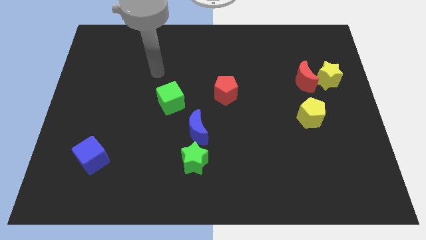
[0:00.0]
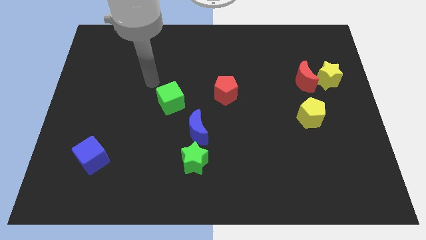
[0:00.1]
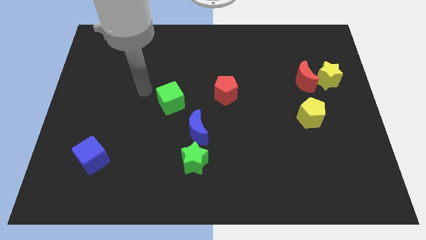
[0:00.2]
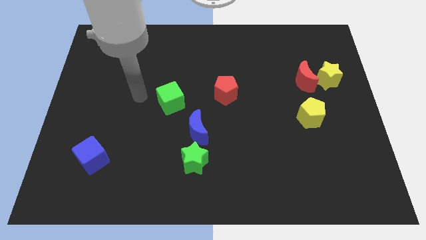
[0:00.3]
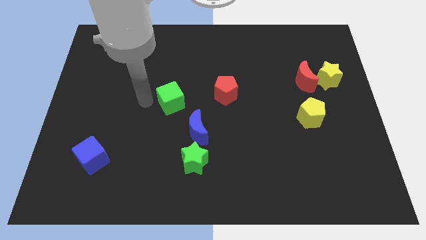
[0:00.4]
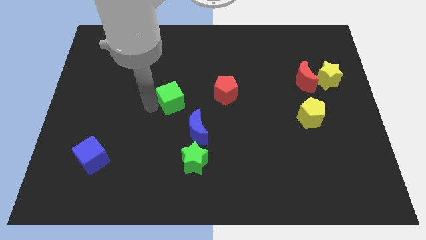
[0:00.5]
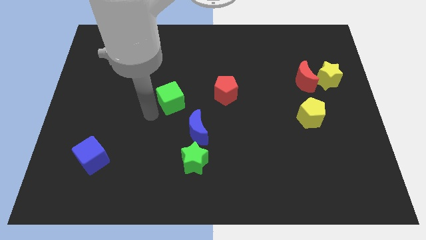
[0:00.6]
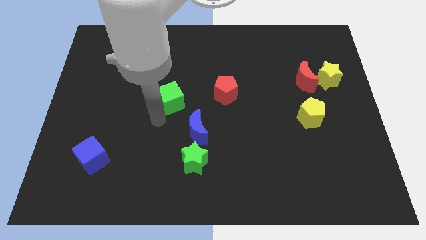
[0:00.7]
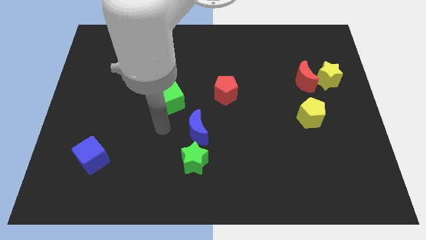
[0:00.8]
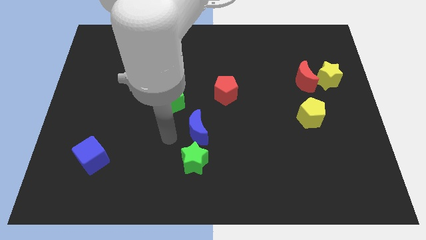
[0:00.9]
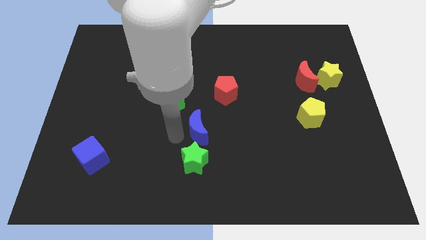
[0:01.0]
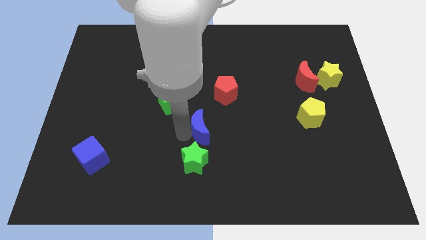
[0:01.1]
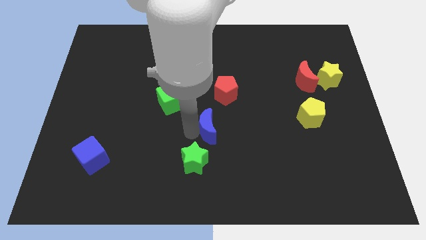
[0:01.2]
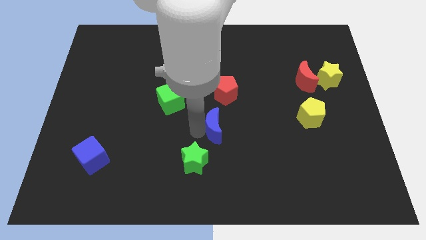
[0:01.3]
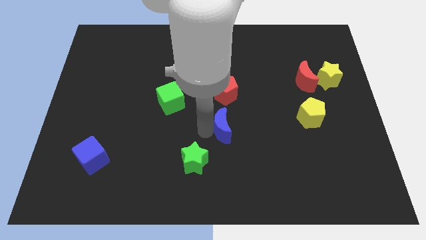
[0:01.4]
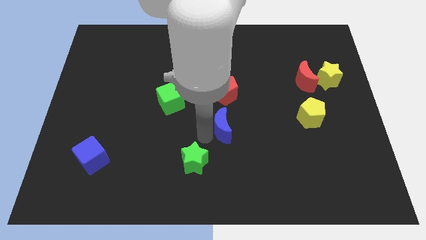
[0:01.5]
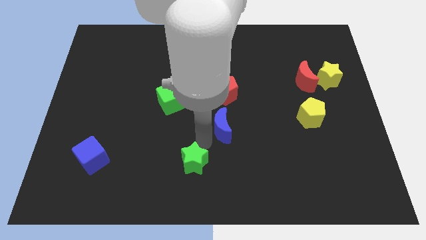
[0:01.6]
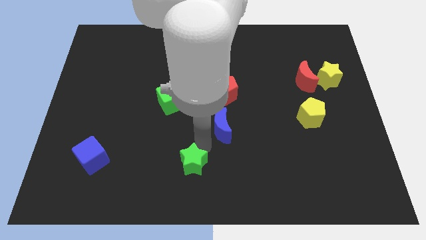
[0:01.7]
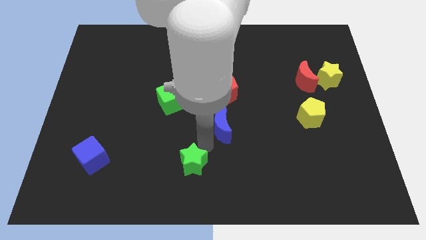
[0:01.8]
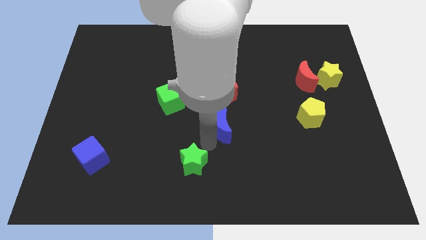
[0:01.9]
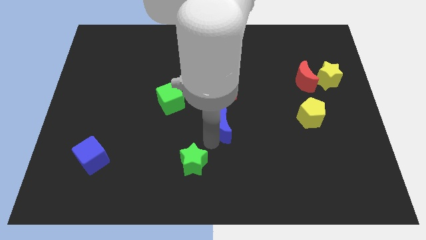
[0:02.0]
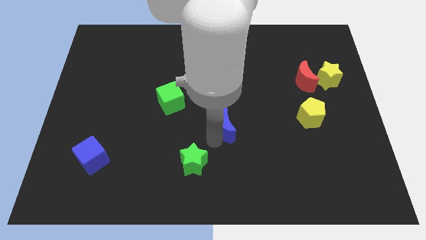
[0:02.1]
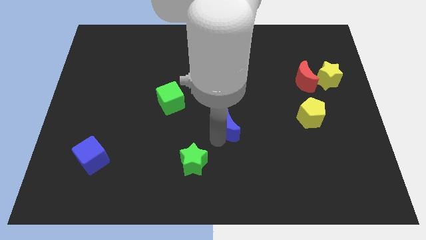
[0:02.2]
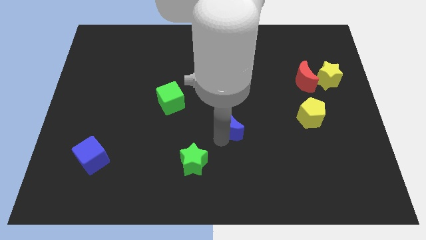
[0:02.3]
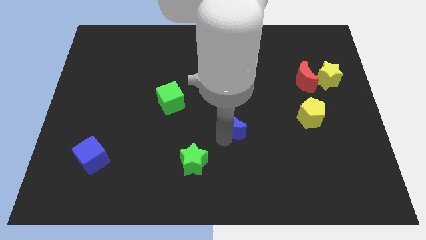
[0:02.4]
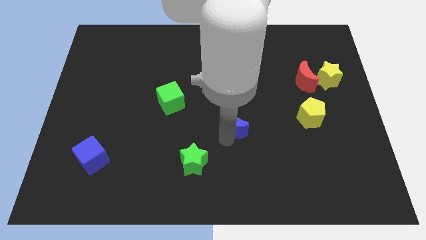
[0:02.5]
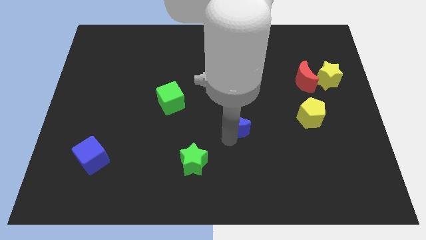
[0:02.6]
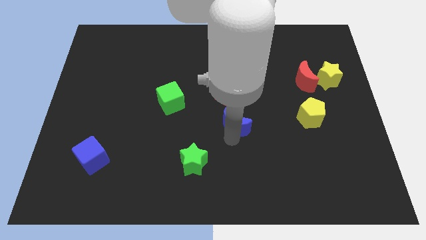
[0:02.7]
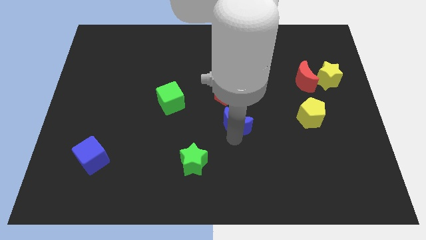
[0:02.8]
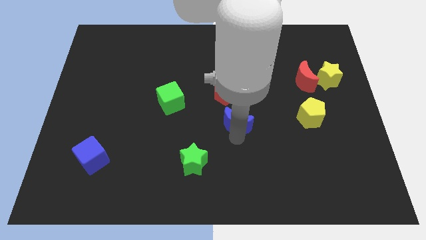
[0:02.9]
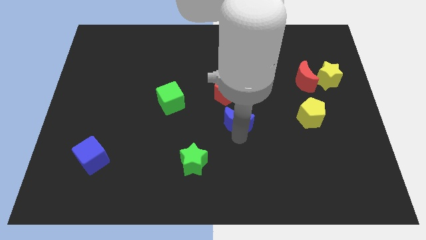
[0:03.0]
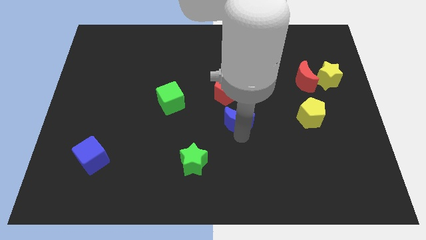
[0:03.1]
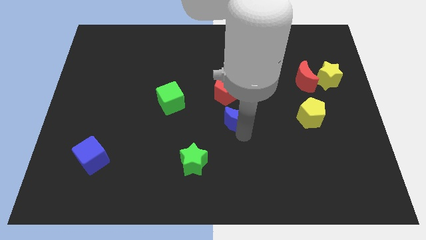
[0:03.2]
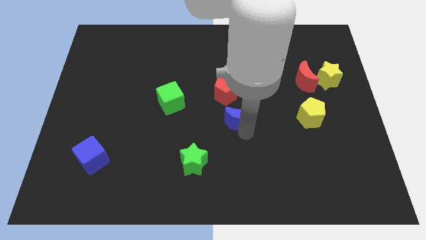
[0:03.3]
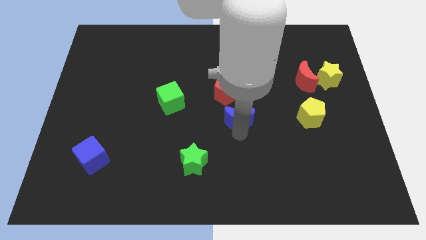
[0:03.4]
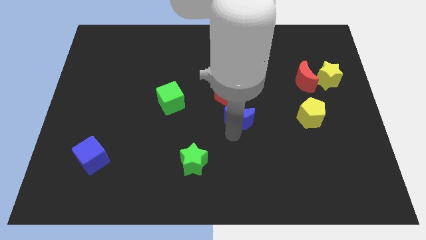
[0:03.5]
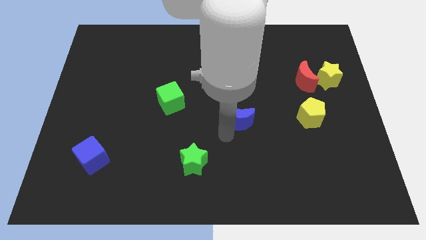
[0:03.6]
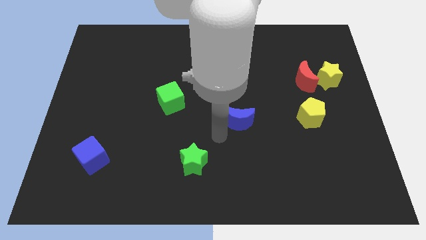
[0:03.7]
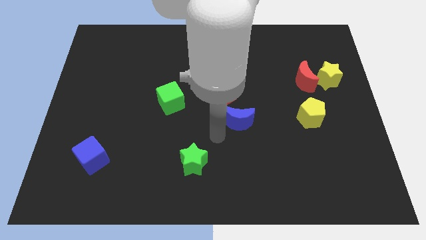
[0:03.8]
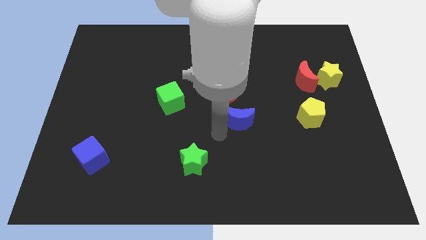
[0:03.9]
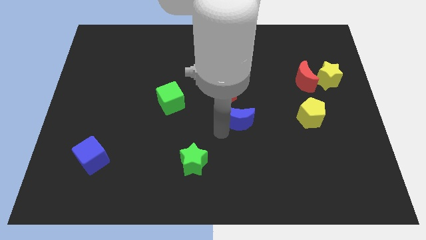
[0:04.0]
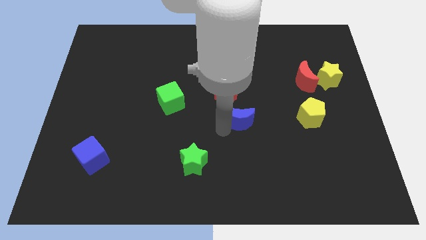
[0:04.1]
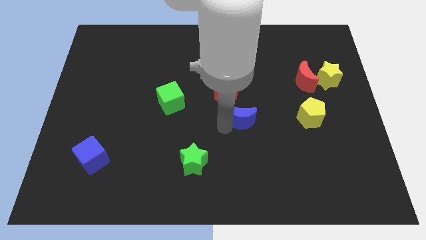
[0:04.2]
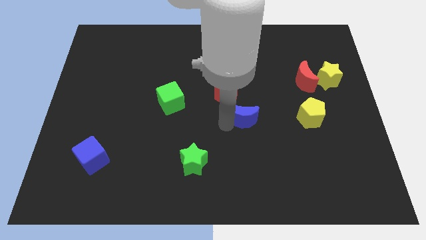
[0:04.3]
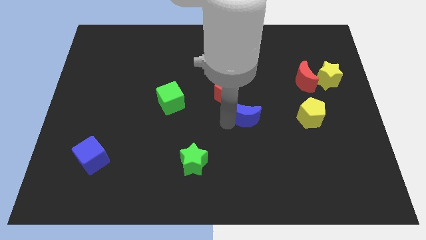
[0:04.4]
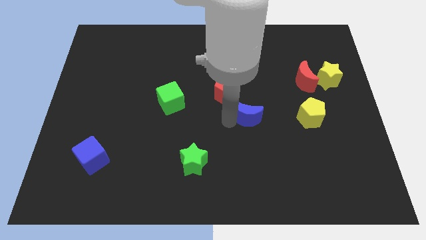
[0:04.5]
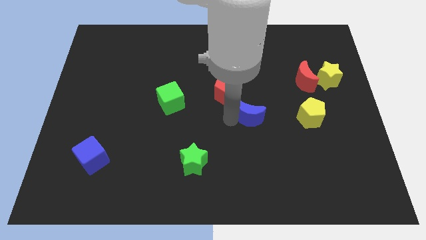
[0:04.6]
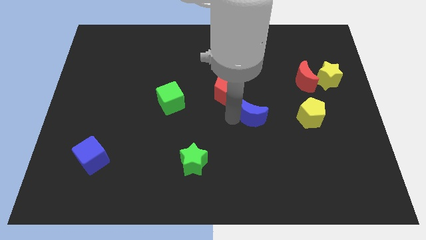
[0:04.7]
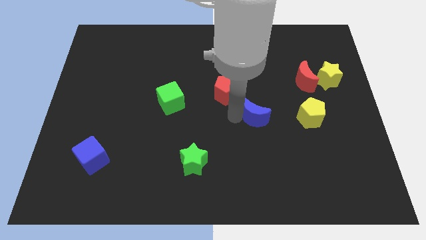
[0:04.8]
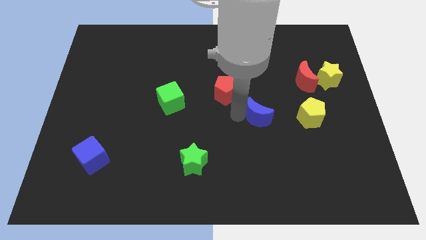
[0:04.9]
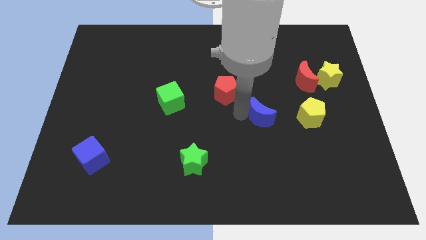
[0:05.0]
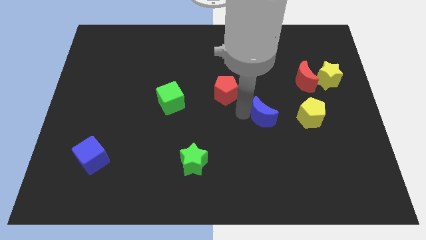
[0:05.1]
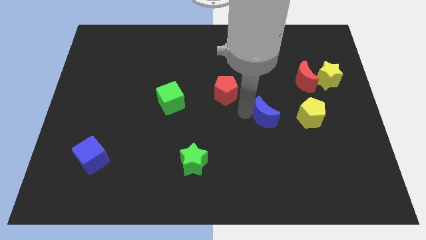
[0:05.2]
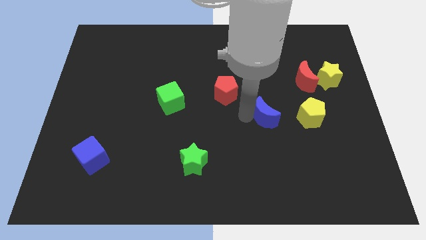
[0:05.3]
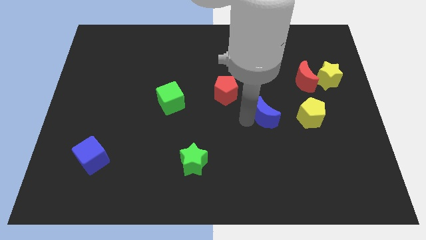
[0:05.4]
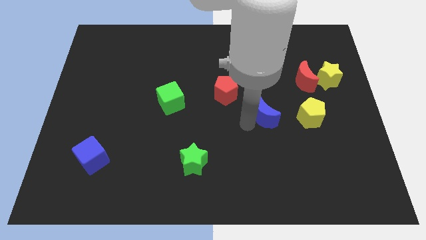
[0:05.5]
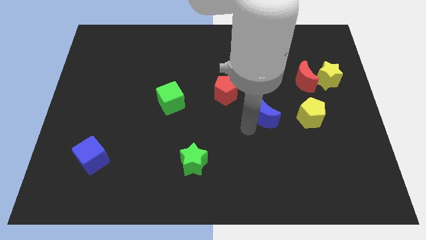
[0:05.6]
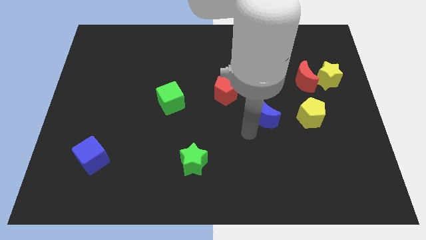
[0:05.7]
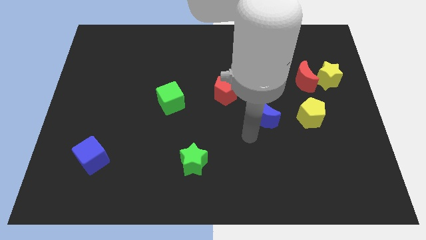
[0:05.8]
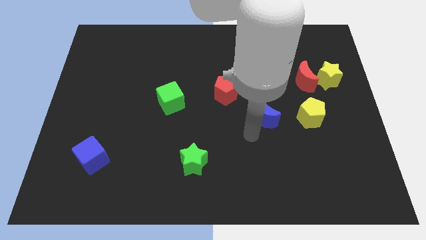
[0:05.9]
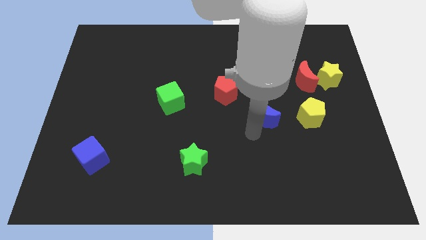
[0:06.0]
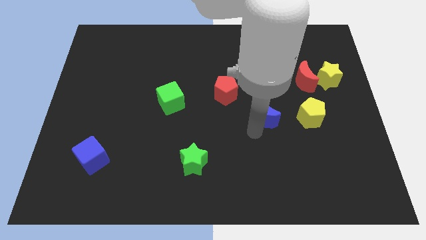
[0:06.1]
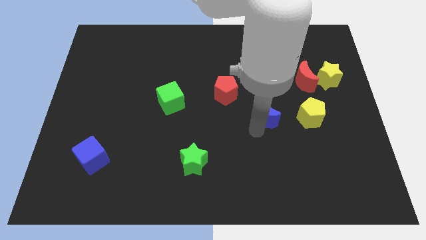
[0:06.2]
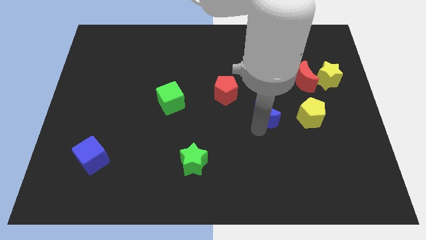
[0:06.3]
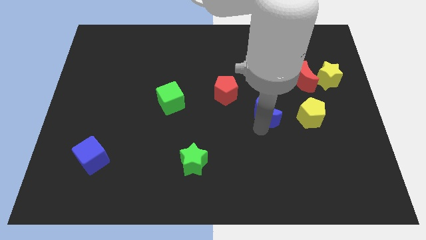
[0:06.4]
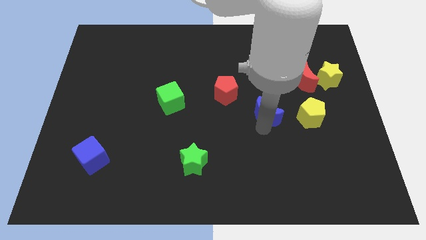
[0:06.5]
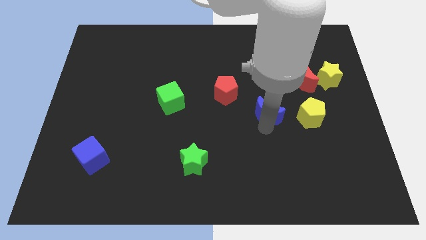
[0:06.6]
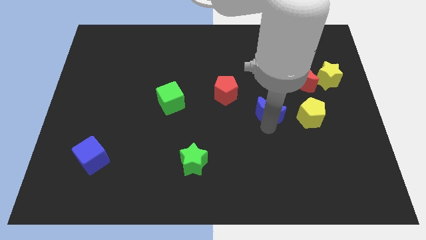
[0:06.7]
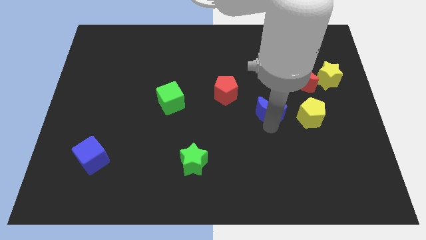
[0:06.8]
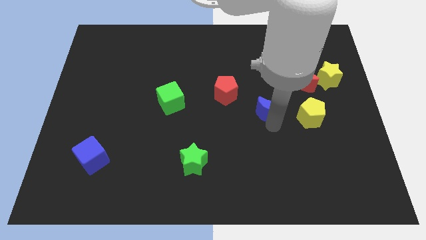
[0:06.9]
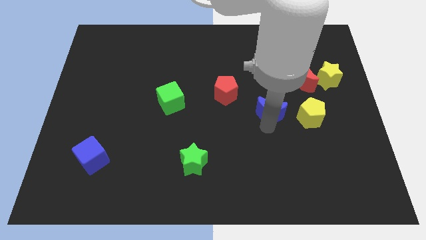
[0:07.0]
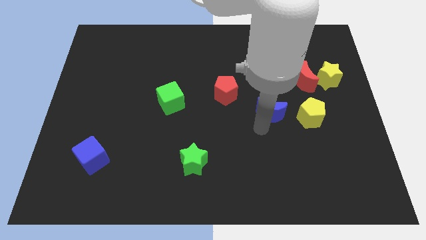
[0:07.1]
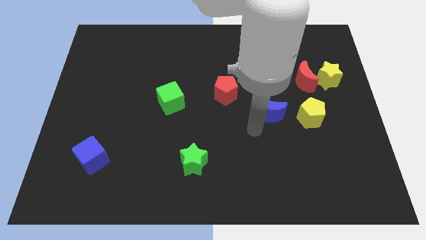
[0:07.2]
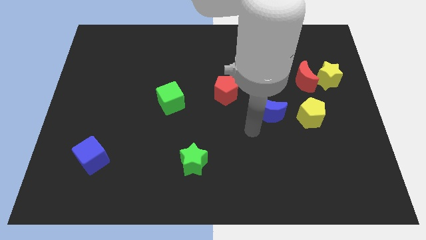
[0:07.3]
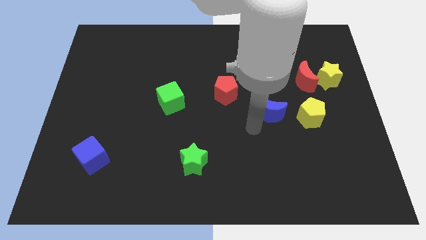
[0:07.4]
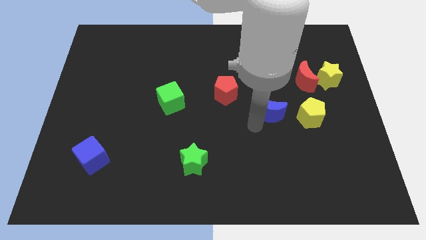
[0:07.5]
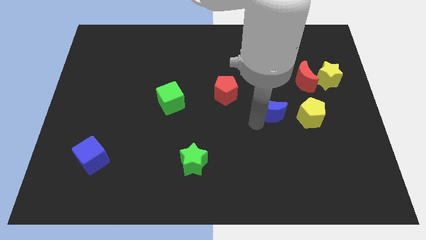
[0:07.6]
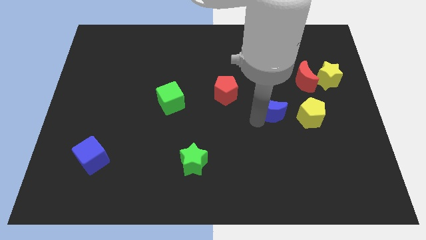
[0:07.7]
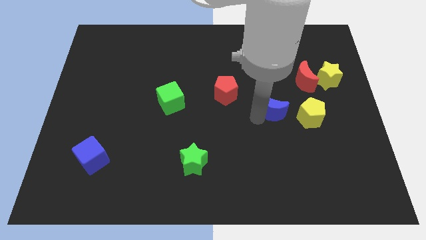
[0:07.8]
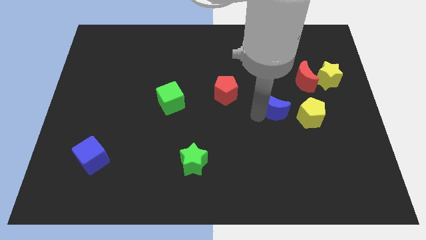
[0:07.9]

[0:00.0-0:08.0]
push the blue moon to the top left side of the yellow pentagon
